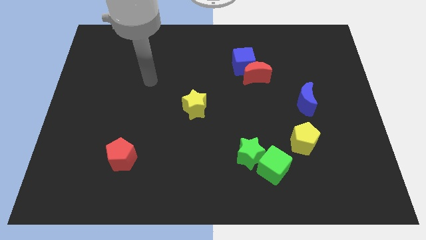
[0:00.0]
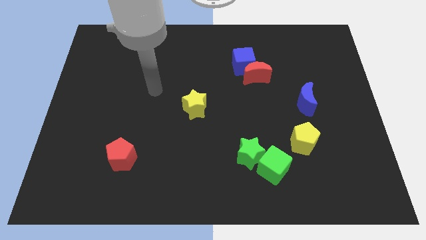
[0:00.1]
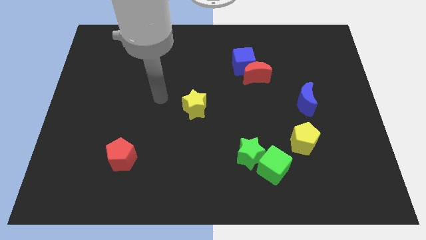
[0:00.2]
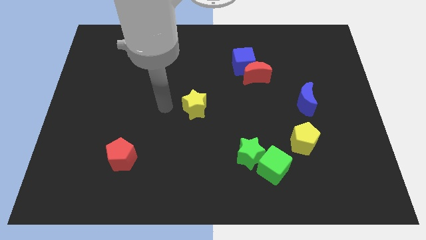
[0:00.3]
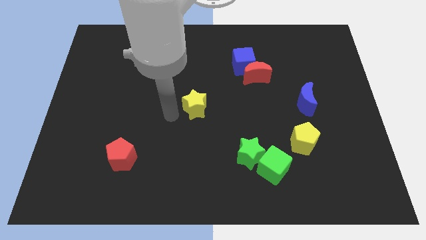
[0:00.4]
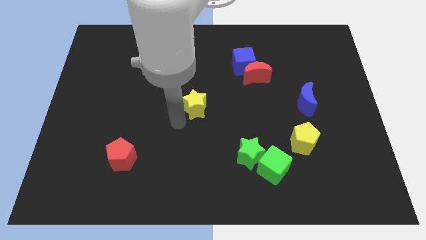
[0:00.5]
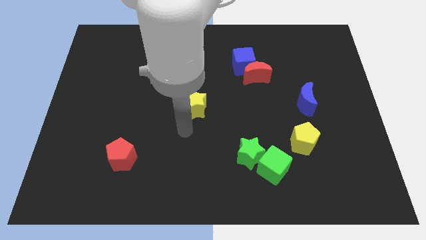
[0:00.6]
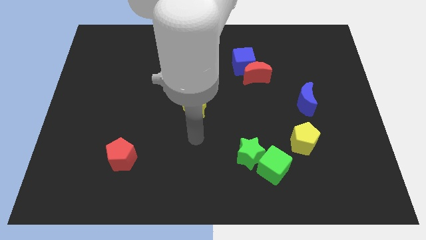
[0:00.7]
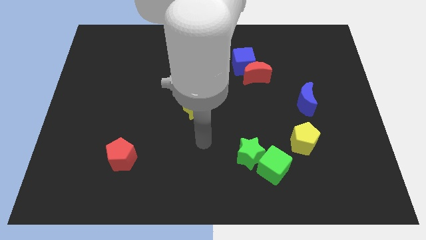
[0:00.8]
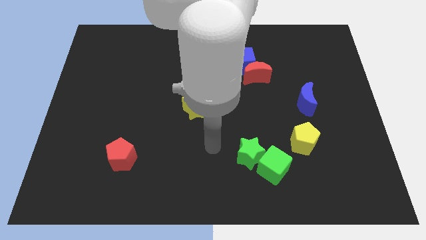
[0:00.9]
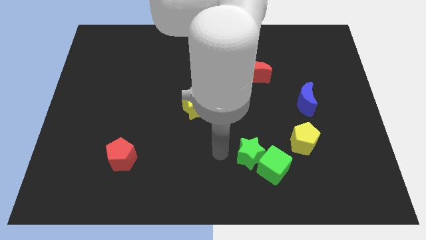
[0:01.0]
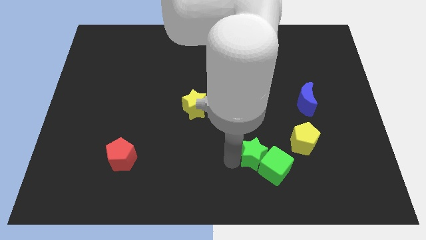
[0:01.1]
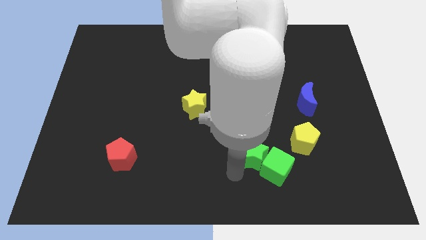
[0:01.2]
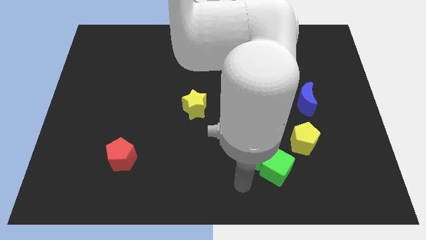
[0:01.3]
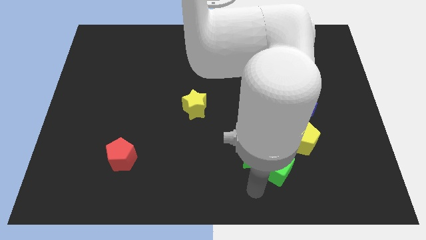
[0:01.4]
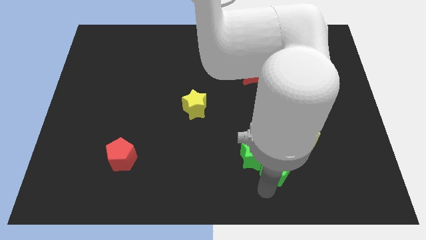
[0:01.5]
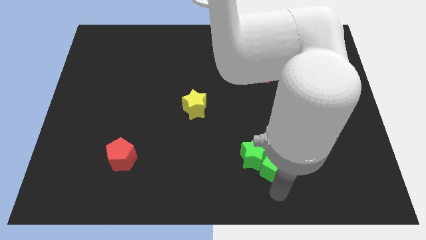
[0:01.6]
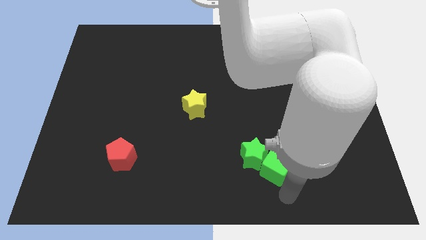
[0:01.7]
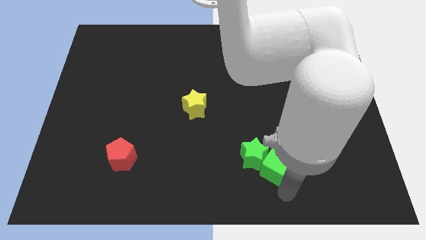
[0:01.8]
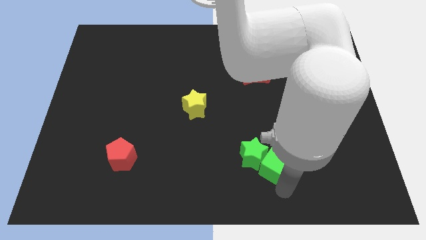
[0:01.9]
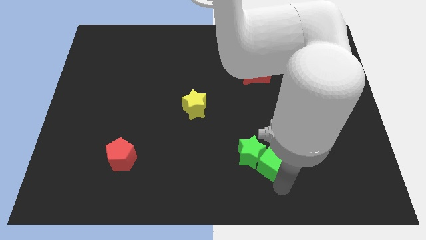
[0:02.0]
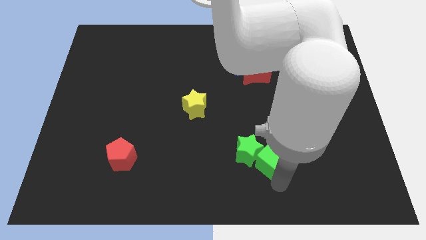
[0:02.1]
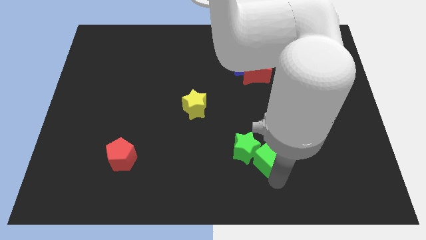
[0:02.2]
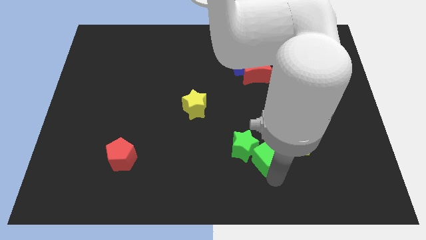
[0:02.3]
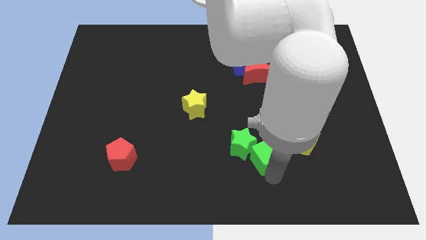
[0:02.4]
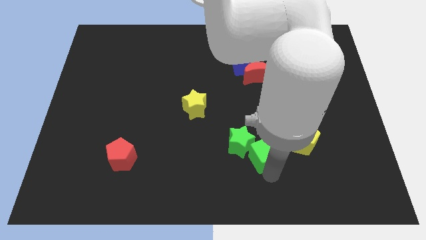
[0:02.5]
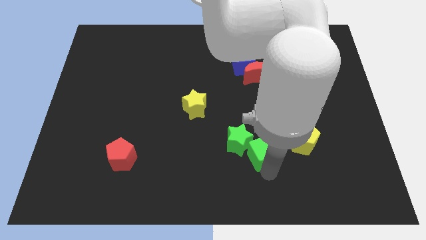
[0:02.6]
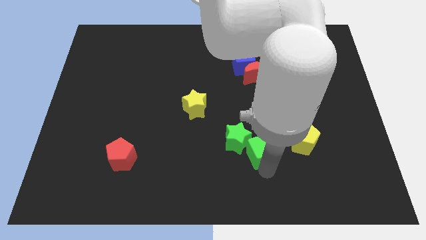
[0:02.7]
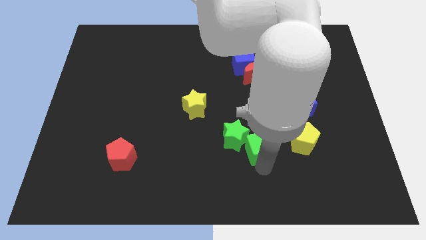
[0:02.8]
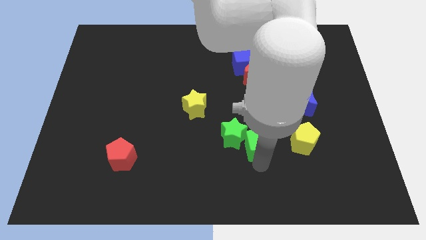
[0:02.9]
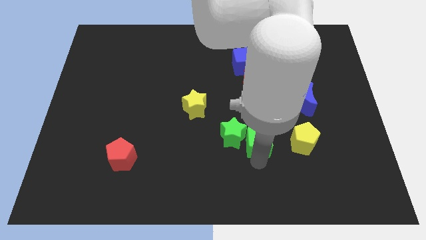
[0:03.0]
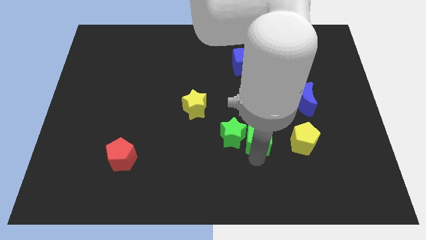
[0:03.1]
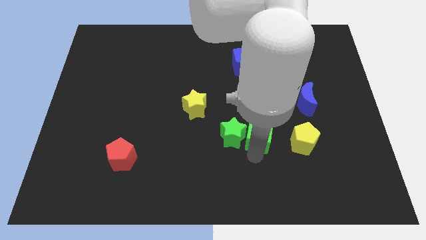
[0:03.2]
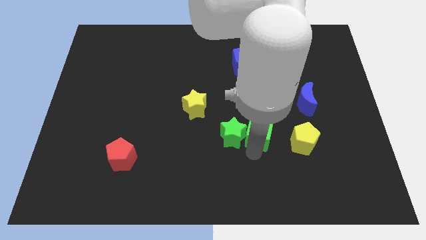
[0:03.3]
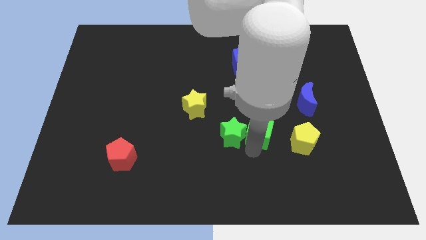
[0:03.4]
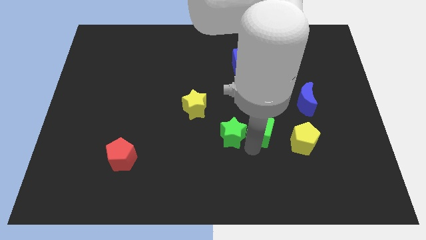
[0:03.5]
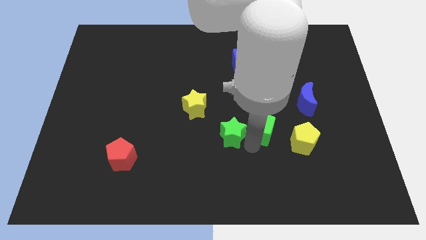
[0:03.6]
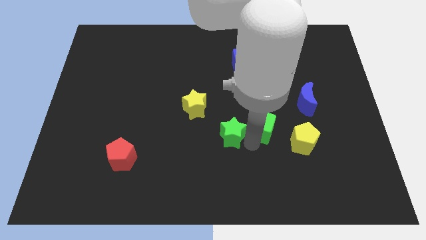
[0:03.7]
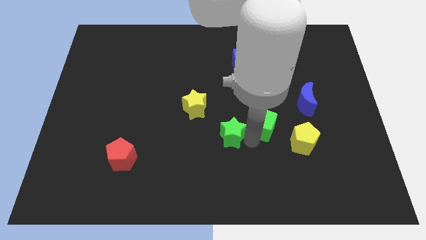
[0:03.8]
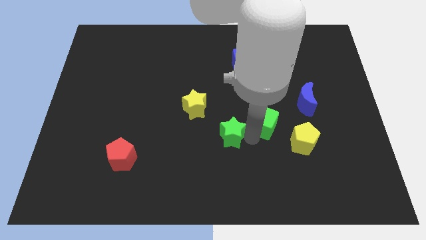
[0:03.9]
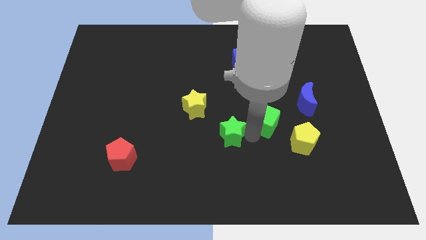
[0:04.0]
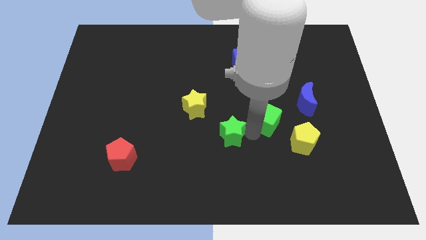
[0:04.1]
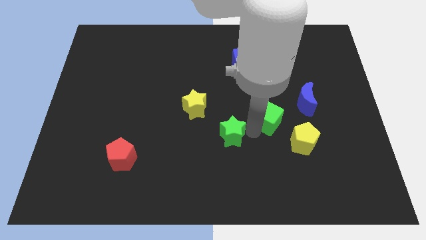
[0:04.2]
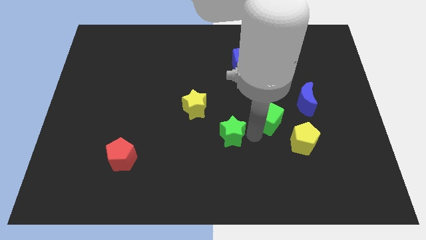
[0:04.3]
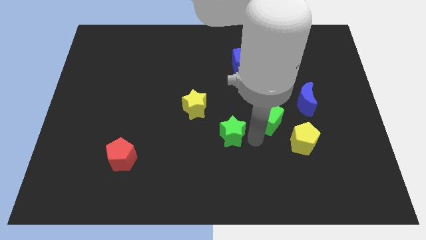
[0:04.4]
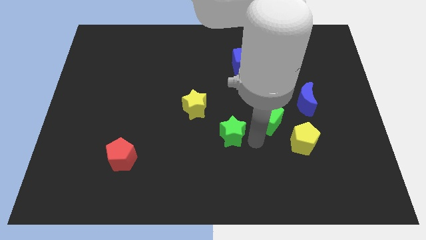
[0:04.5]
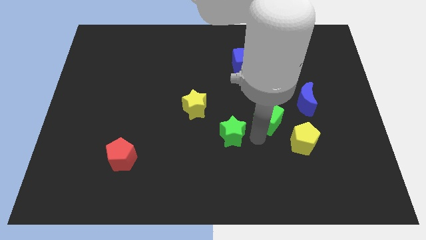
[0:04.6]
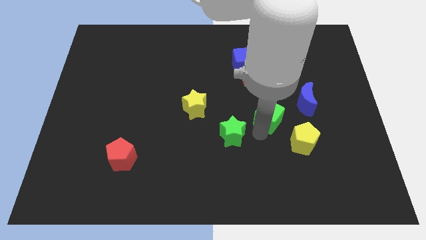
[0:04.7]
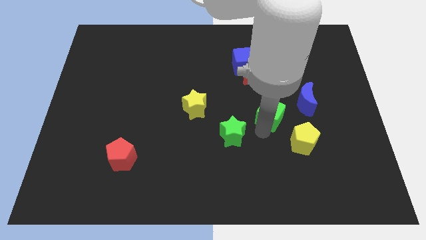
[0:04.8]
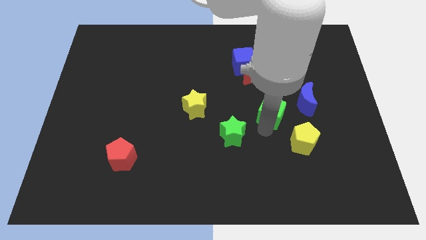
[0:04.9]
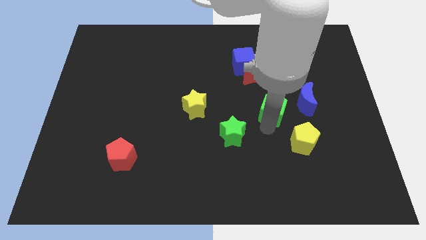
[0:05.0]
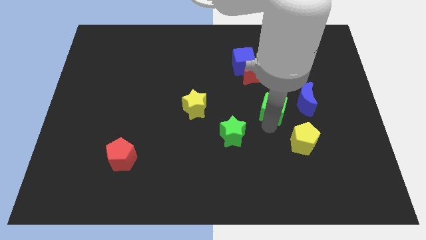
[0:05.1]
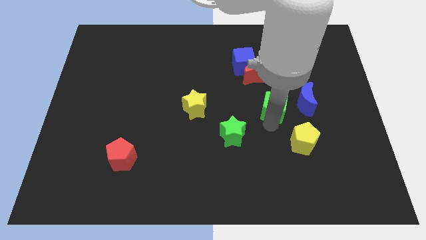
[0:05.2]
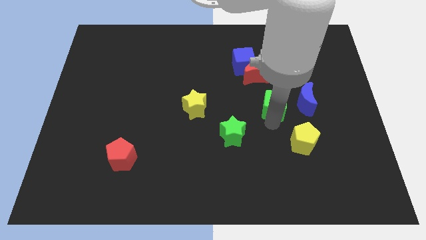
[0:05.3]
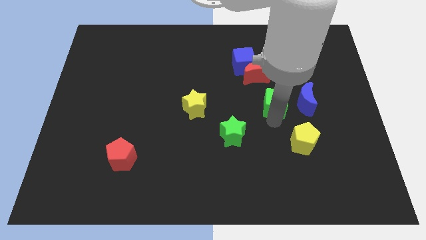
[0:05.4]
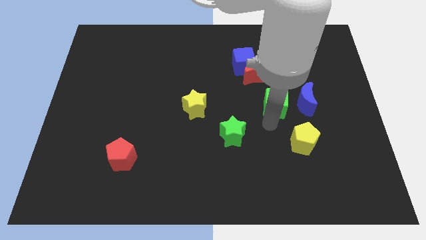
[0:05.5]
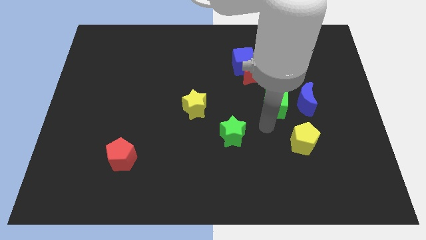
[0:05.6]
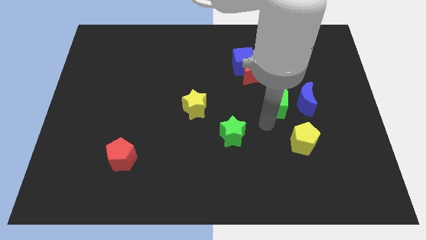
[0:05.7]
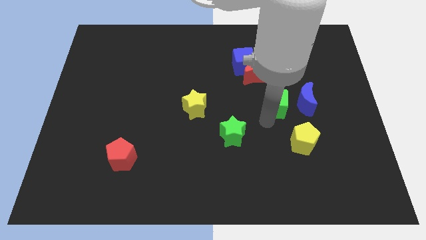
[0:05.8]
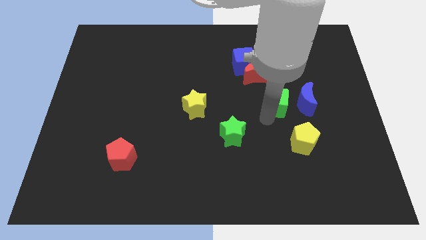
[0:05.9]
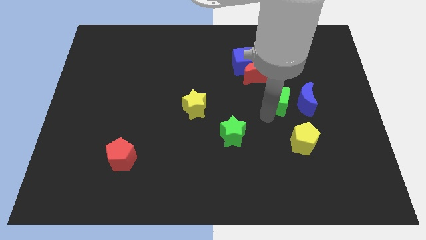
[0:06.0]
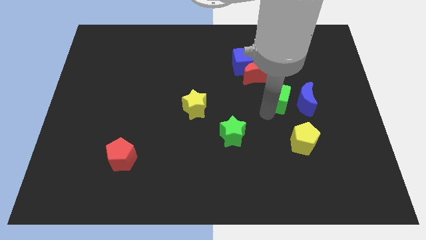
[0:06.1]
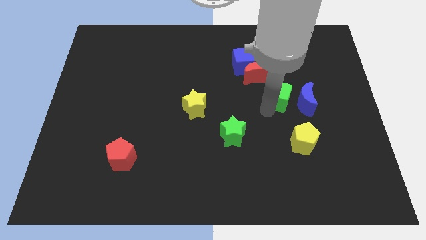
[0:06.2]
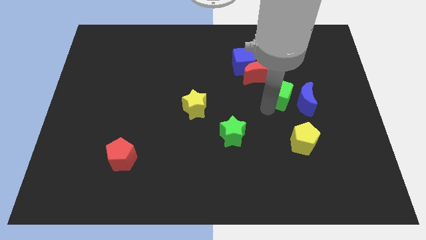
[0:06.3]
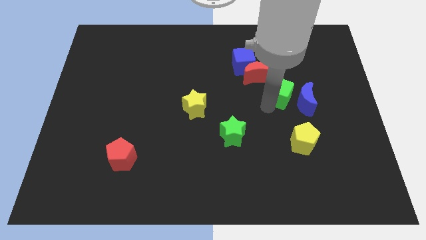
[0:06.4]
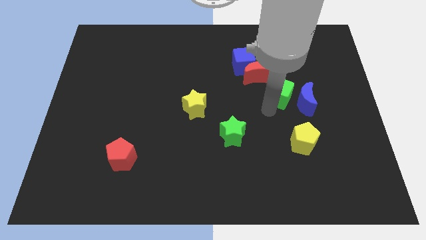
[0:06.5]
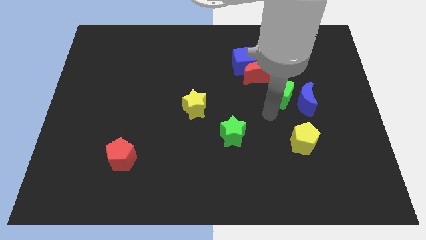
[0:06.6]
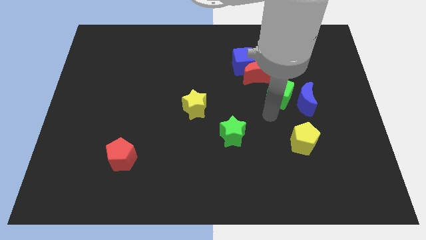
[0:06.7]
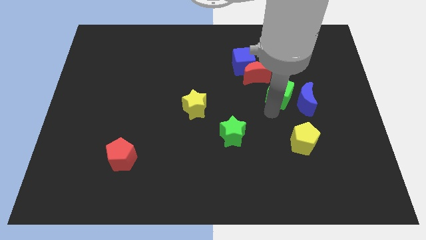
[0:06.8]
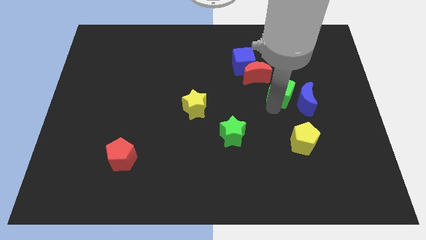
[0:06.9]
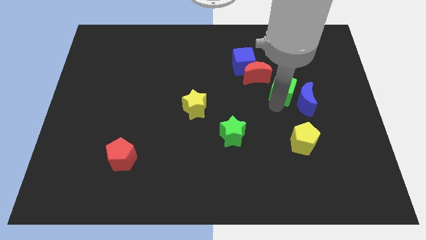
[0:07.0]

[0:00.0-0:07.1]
move the green cube up

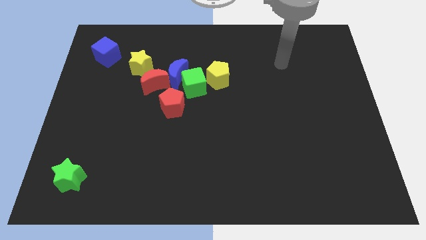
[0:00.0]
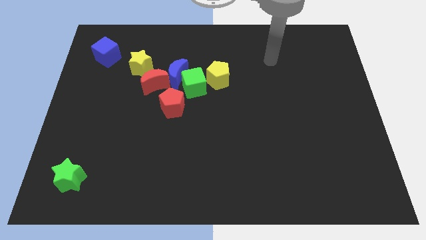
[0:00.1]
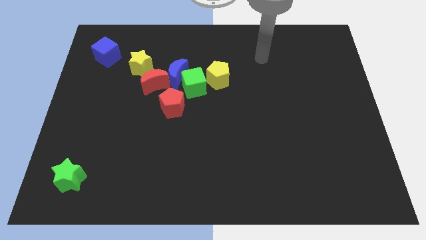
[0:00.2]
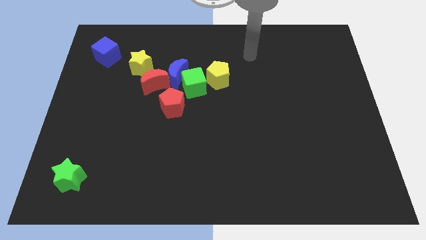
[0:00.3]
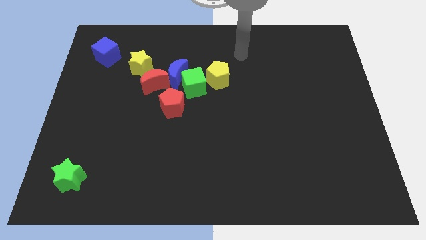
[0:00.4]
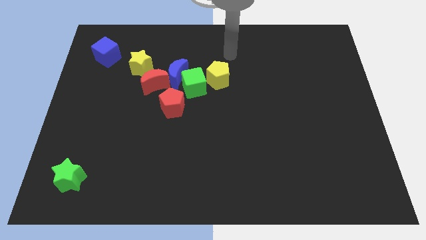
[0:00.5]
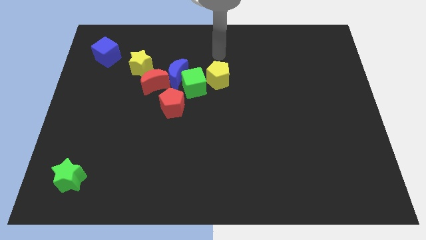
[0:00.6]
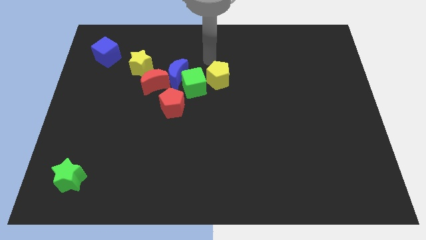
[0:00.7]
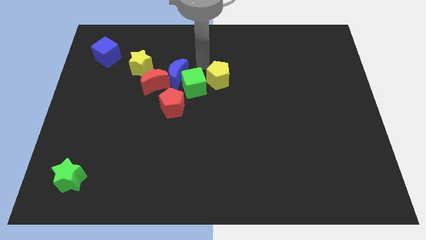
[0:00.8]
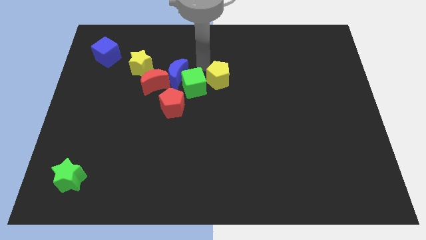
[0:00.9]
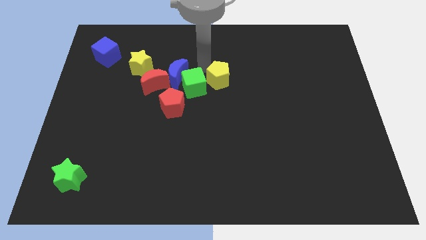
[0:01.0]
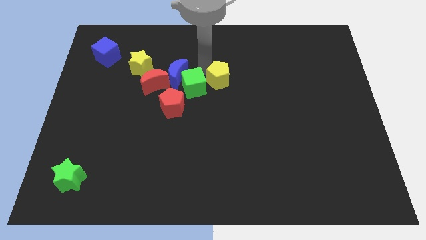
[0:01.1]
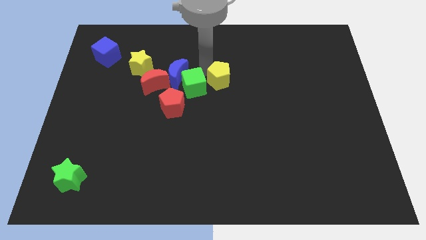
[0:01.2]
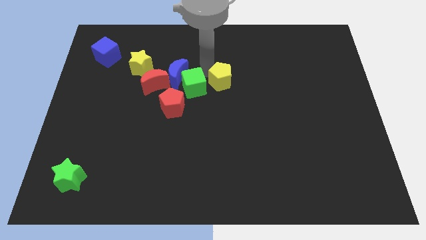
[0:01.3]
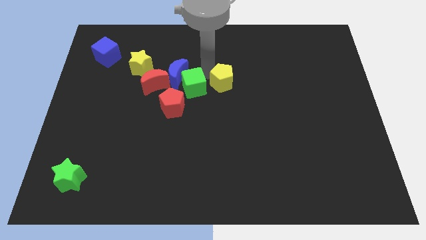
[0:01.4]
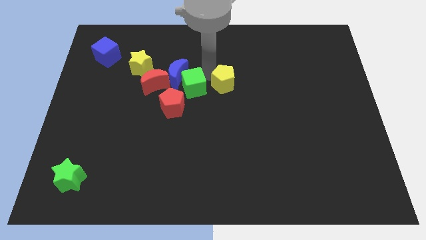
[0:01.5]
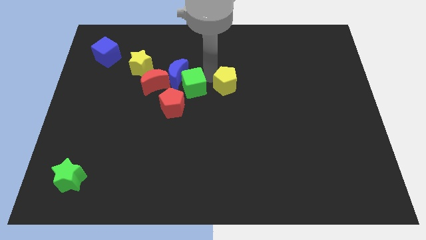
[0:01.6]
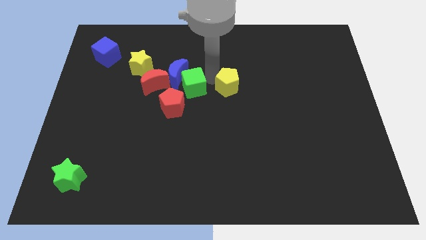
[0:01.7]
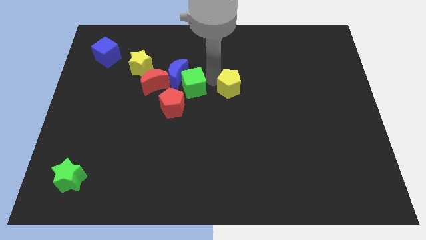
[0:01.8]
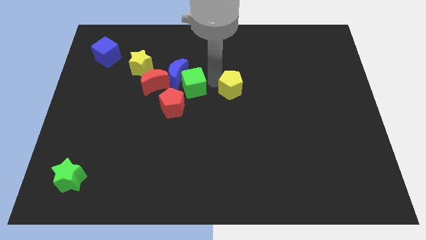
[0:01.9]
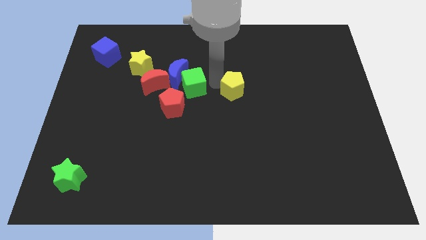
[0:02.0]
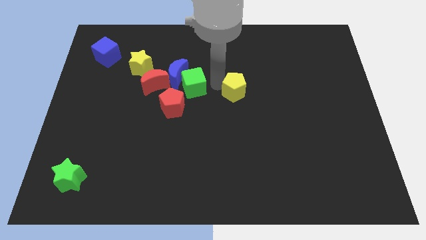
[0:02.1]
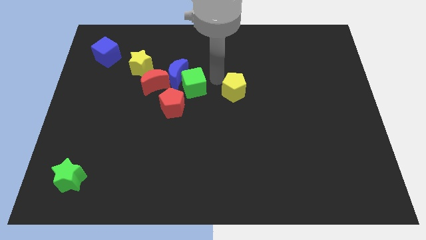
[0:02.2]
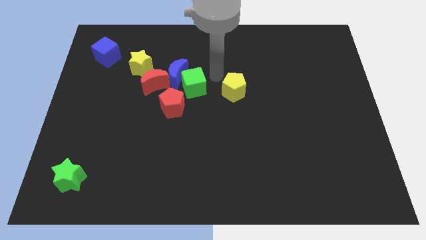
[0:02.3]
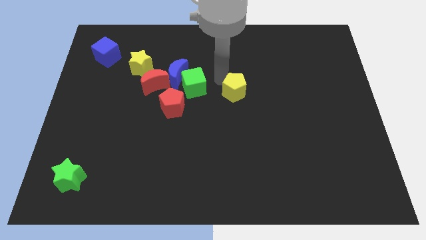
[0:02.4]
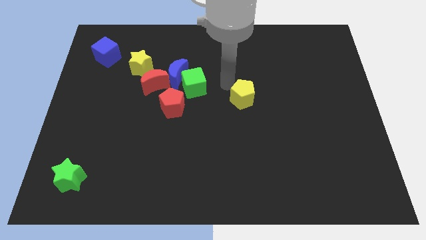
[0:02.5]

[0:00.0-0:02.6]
slide the yellow pentagon diagonally downwards and to the right somewhat
